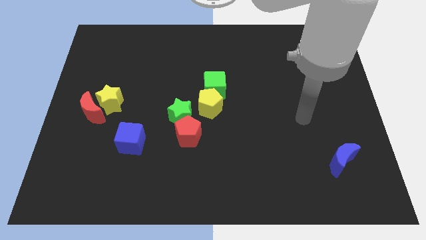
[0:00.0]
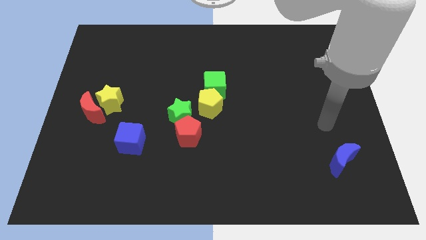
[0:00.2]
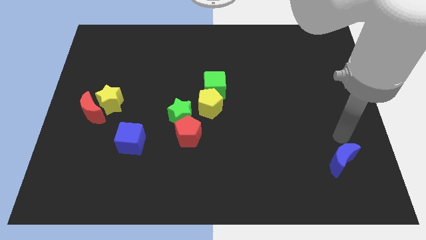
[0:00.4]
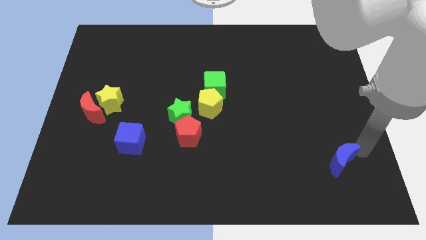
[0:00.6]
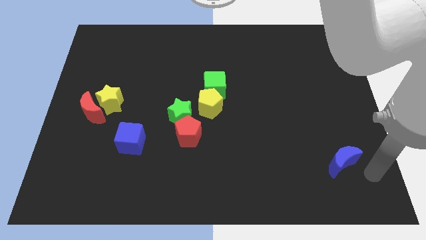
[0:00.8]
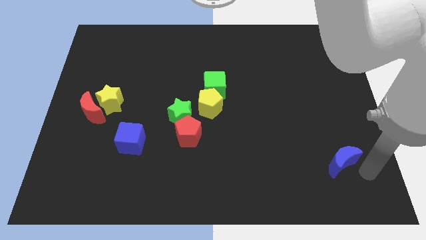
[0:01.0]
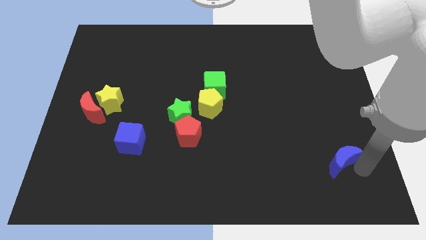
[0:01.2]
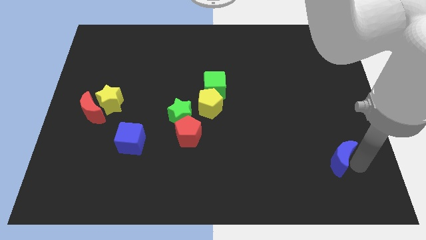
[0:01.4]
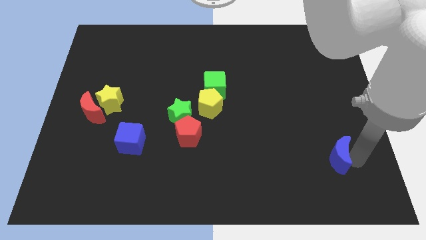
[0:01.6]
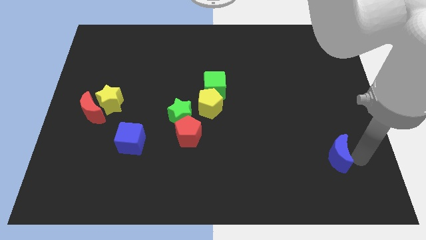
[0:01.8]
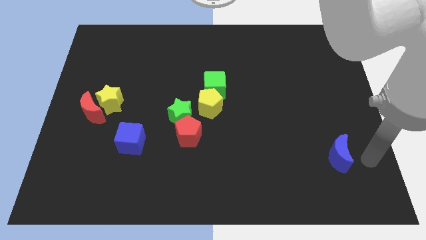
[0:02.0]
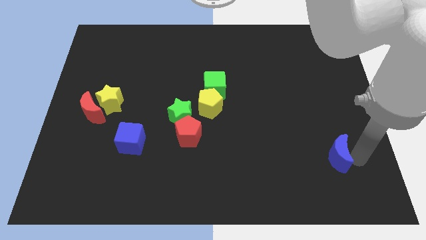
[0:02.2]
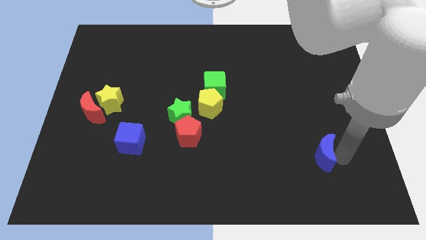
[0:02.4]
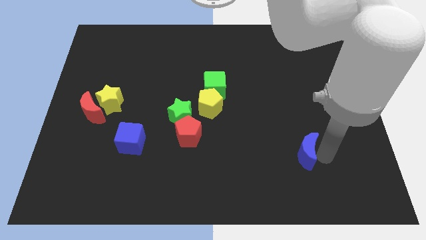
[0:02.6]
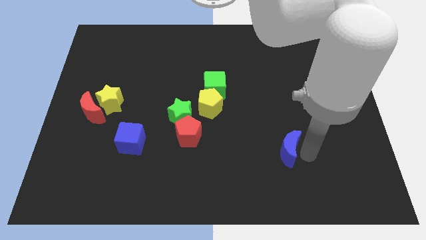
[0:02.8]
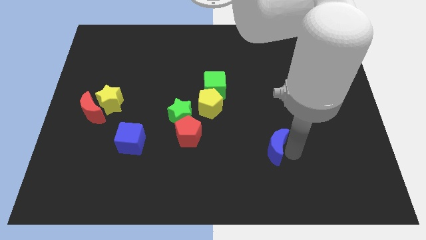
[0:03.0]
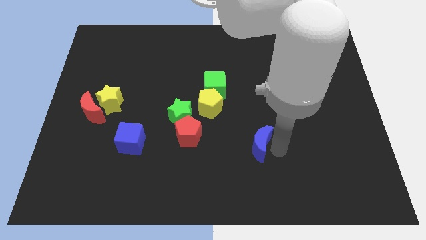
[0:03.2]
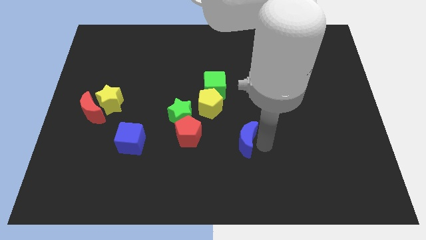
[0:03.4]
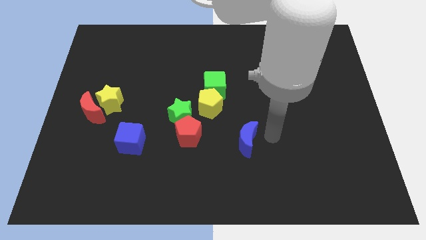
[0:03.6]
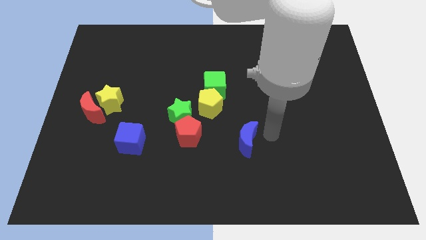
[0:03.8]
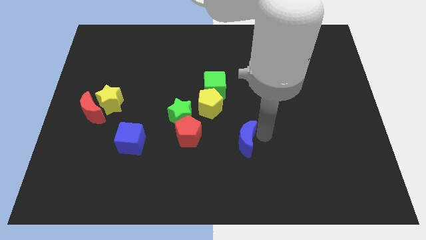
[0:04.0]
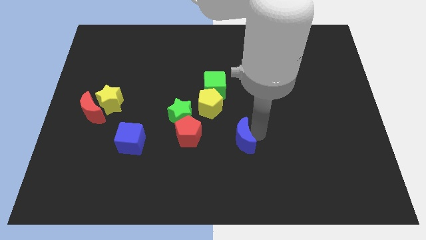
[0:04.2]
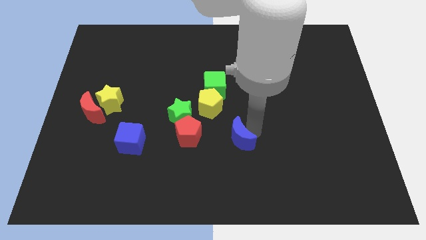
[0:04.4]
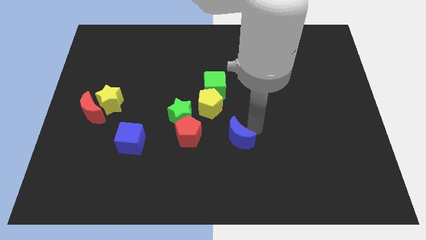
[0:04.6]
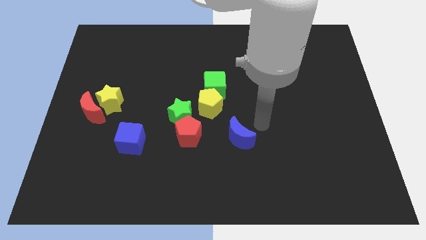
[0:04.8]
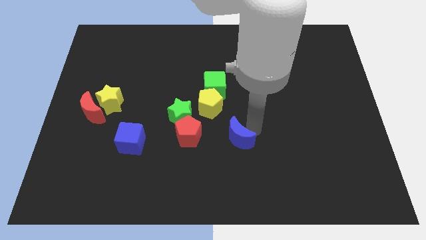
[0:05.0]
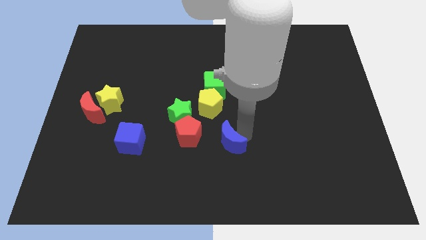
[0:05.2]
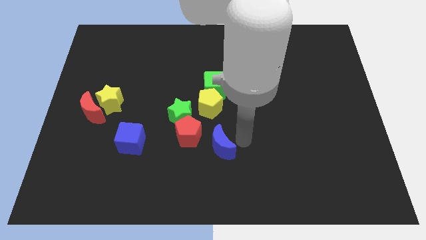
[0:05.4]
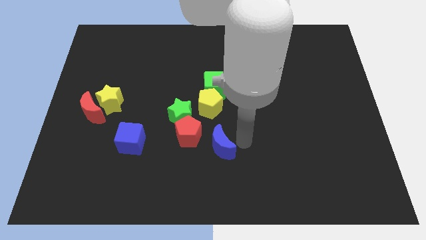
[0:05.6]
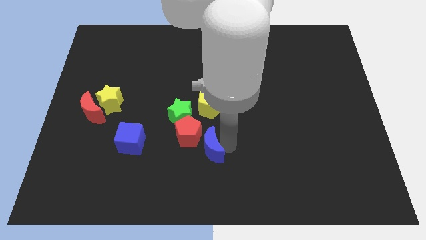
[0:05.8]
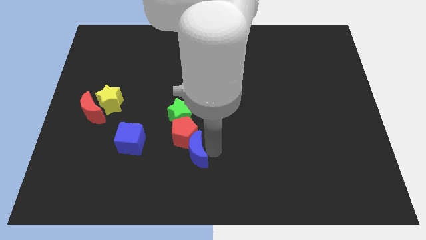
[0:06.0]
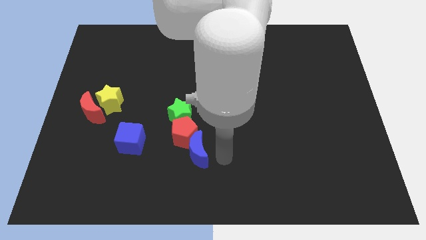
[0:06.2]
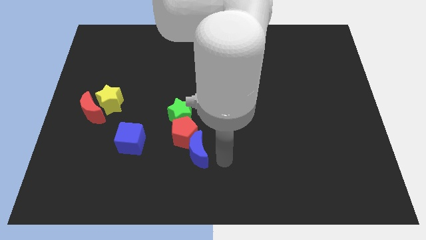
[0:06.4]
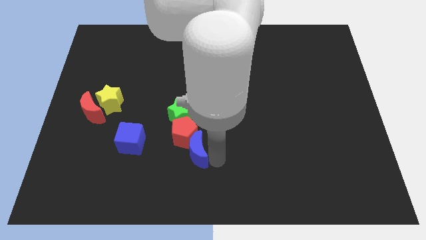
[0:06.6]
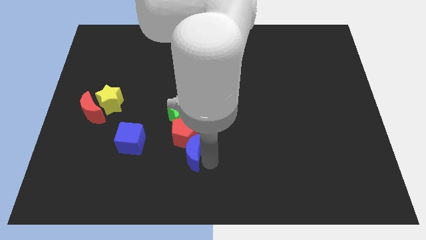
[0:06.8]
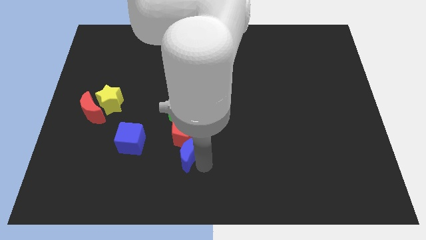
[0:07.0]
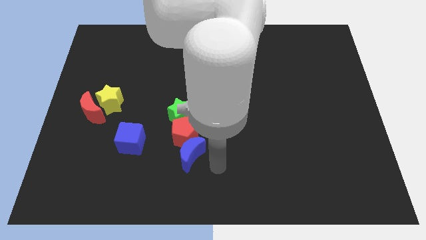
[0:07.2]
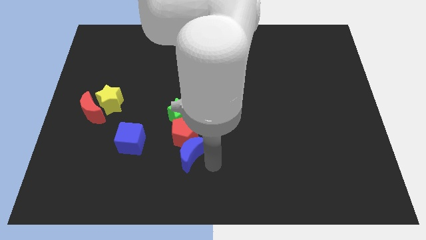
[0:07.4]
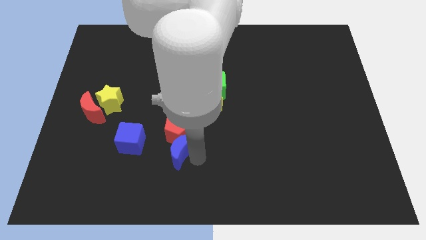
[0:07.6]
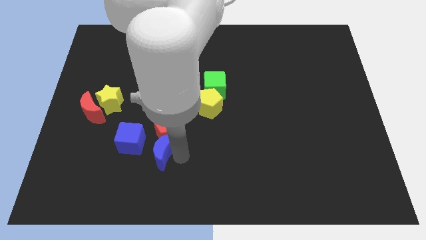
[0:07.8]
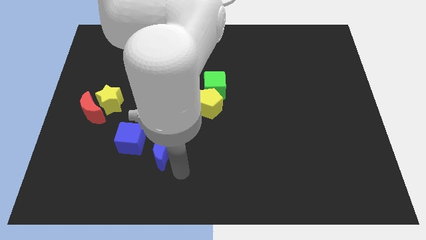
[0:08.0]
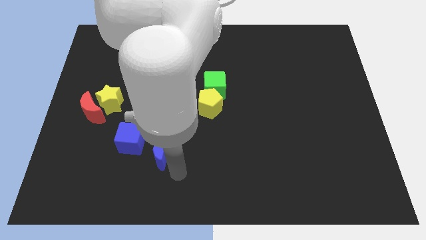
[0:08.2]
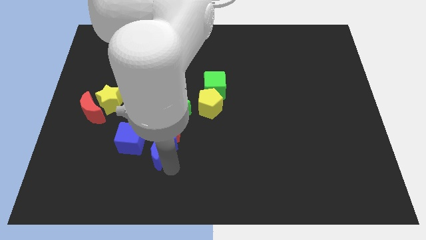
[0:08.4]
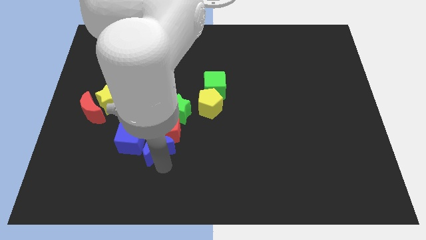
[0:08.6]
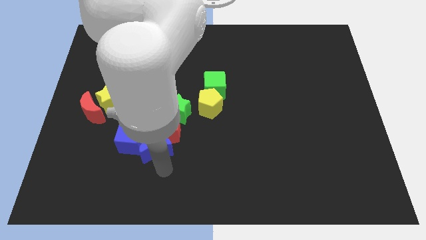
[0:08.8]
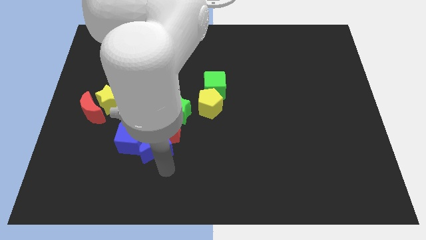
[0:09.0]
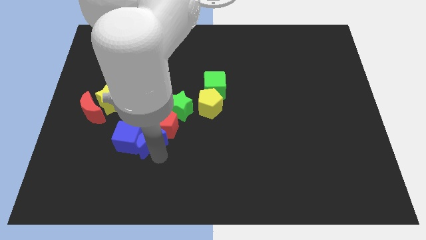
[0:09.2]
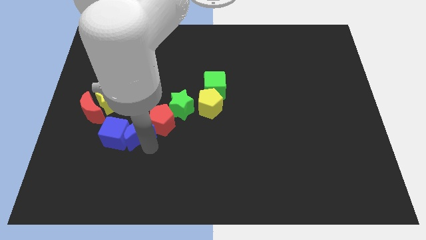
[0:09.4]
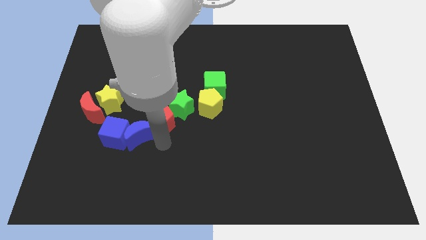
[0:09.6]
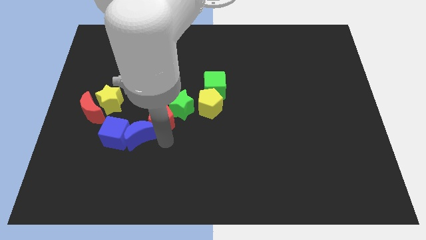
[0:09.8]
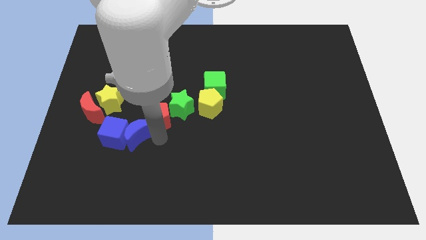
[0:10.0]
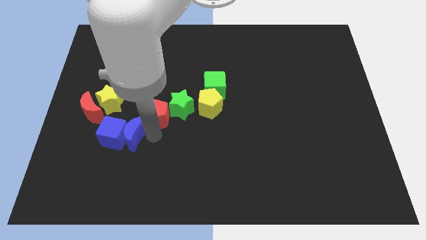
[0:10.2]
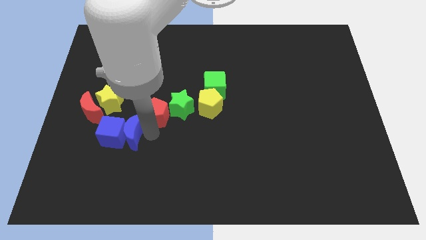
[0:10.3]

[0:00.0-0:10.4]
slide the blue moon to the bottom right of the red moon

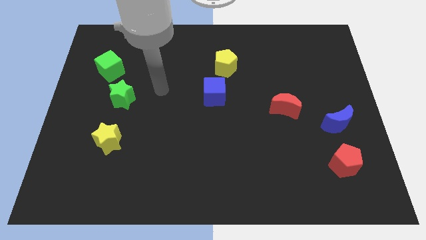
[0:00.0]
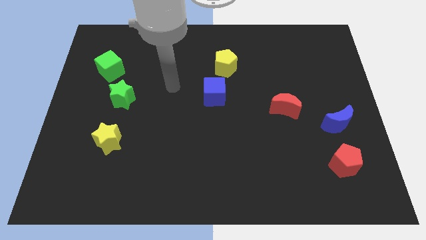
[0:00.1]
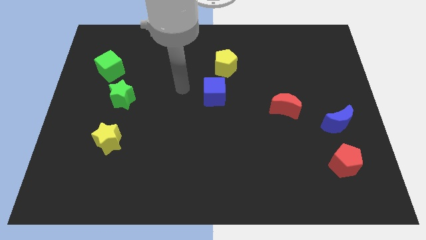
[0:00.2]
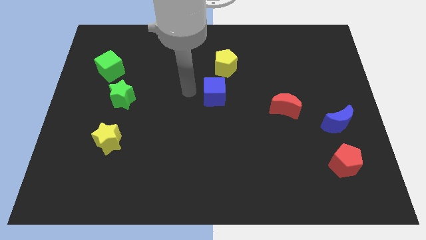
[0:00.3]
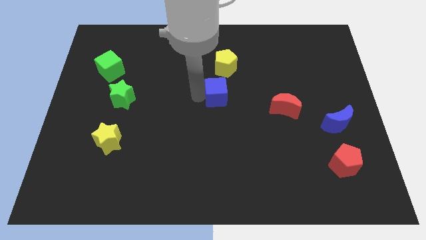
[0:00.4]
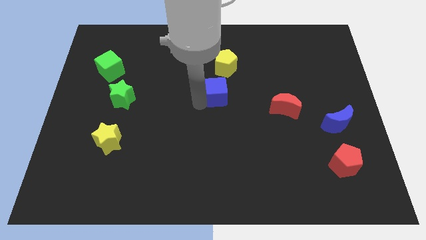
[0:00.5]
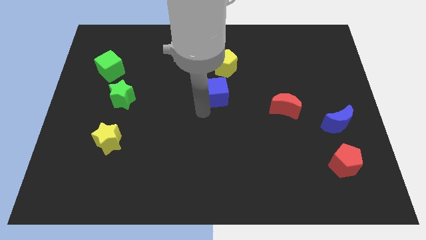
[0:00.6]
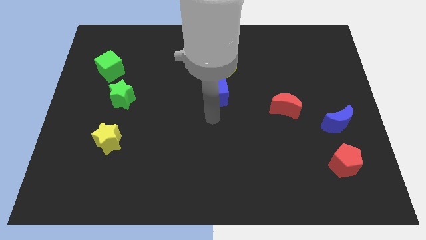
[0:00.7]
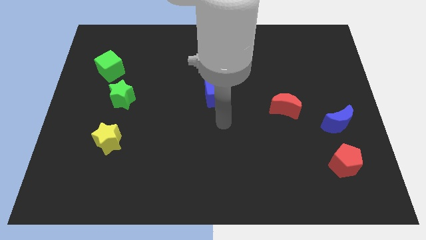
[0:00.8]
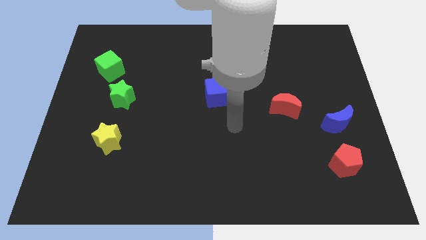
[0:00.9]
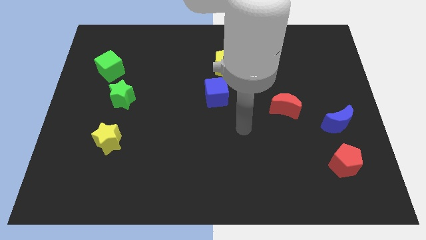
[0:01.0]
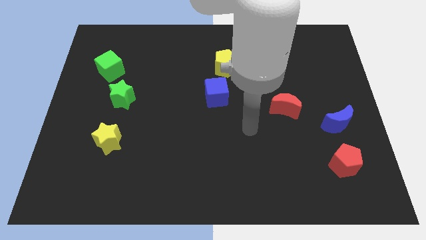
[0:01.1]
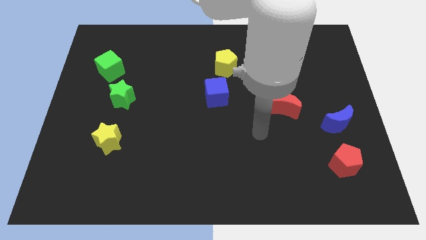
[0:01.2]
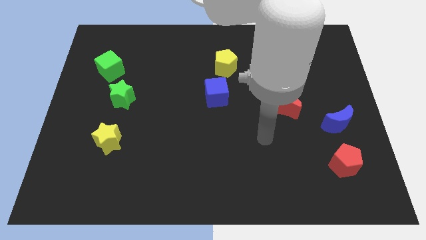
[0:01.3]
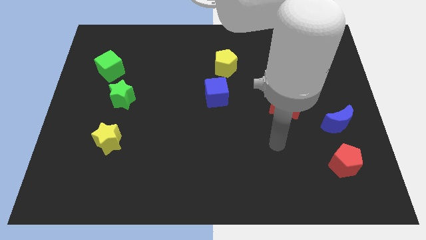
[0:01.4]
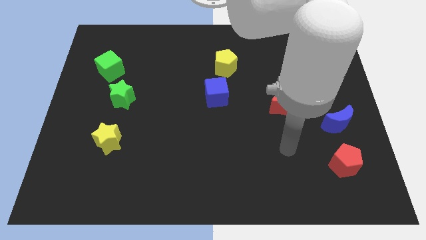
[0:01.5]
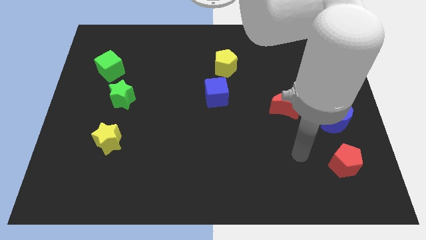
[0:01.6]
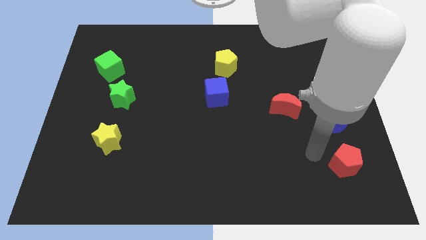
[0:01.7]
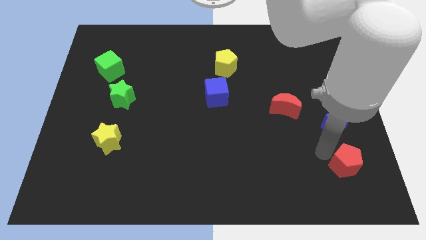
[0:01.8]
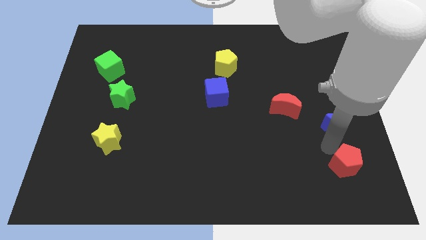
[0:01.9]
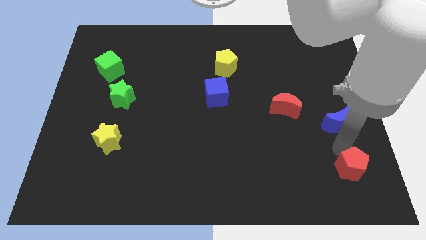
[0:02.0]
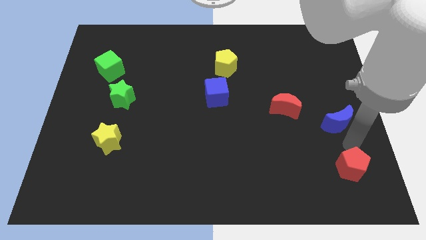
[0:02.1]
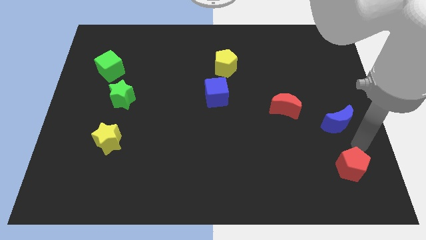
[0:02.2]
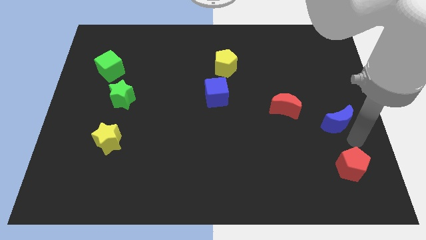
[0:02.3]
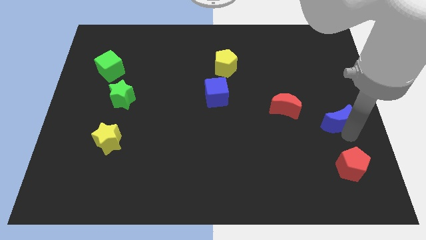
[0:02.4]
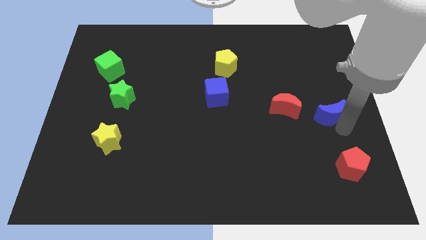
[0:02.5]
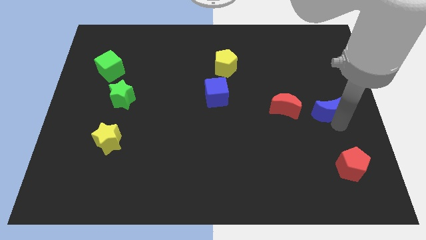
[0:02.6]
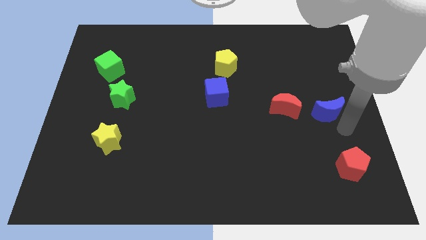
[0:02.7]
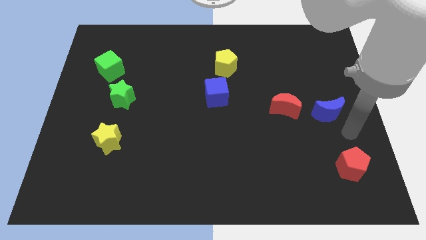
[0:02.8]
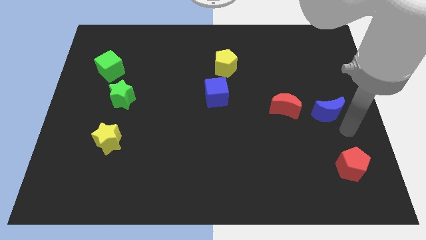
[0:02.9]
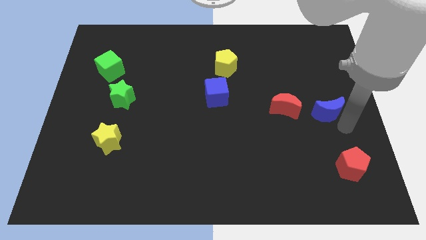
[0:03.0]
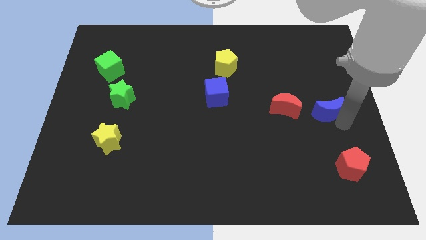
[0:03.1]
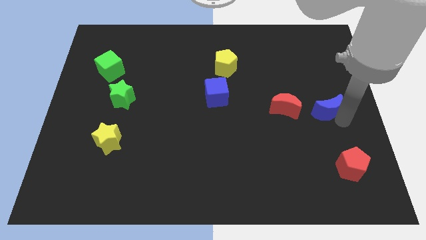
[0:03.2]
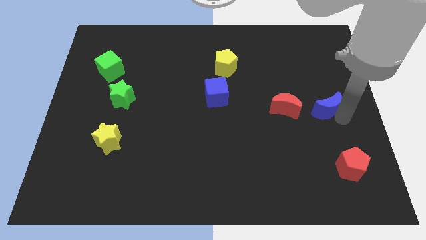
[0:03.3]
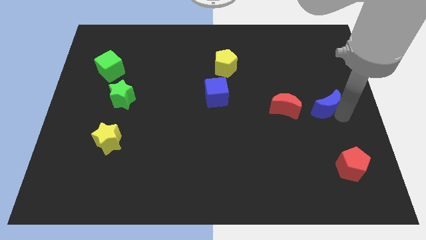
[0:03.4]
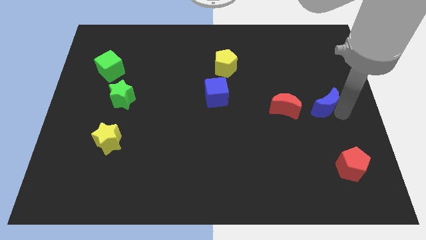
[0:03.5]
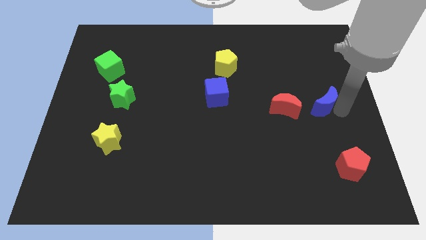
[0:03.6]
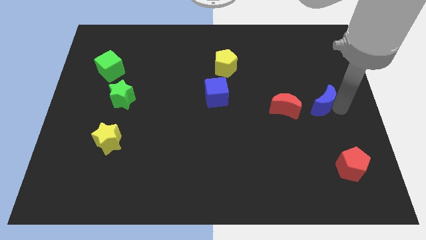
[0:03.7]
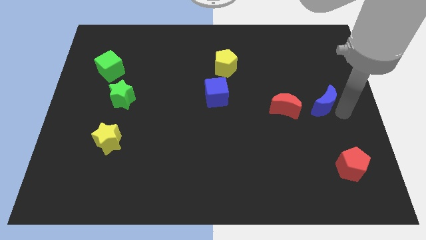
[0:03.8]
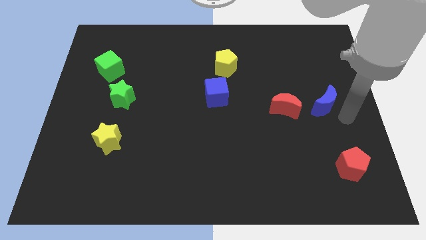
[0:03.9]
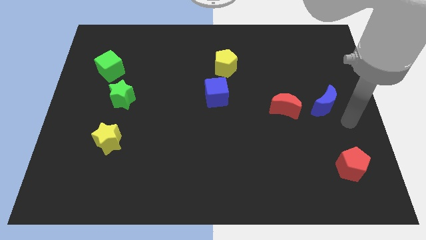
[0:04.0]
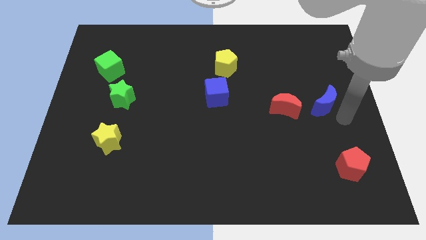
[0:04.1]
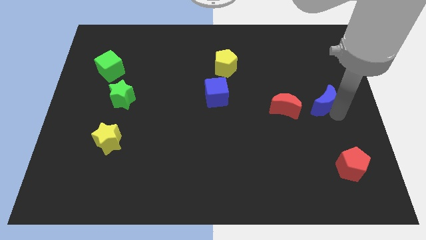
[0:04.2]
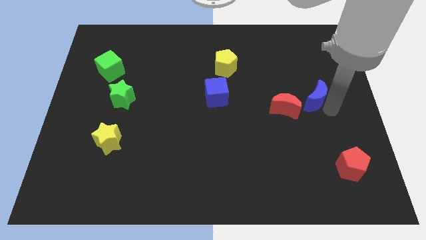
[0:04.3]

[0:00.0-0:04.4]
slide the blue moon to the top right of the red moon
